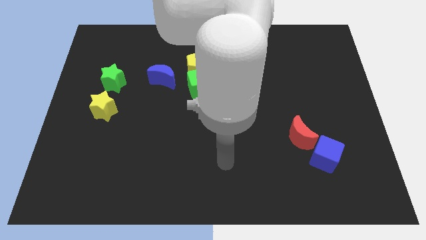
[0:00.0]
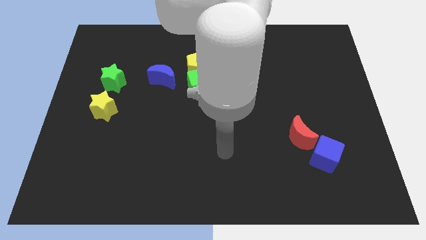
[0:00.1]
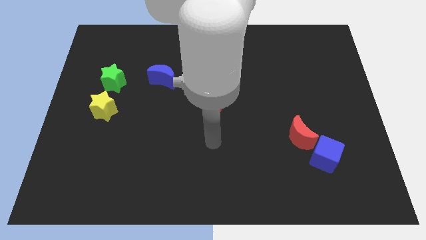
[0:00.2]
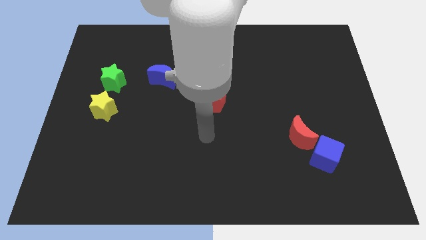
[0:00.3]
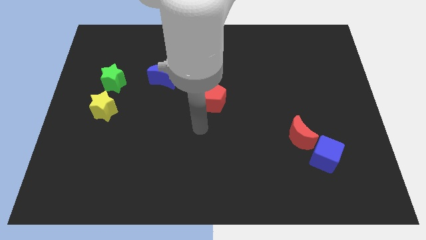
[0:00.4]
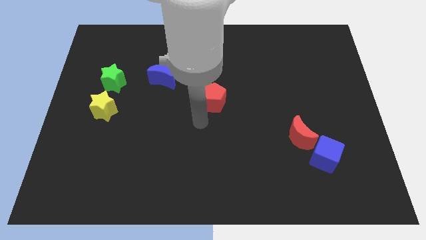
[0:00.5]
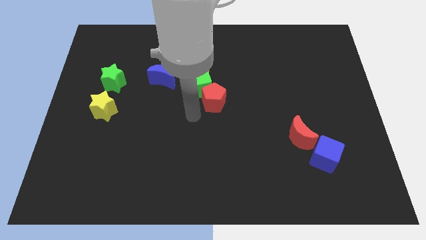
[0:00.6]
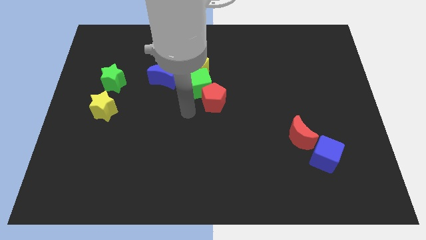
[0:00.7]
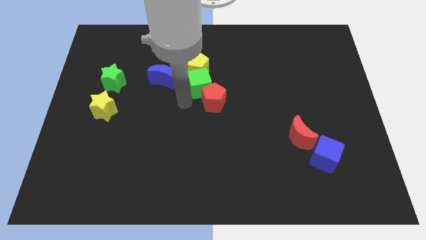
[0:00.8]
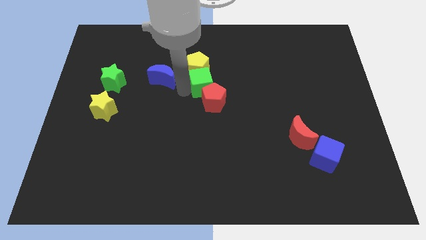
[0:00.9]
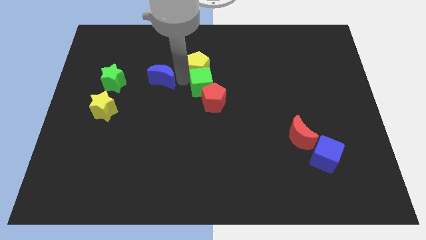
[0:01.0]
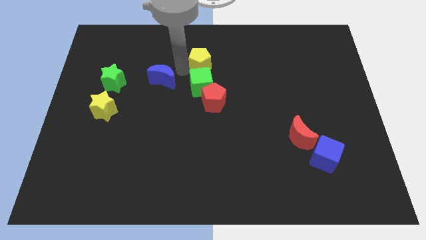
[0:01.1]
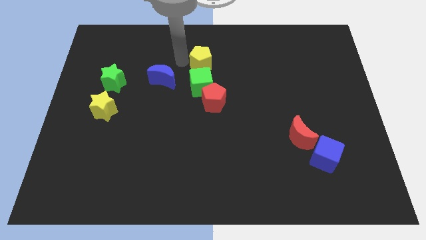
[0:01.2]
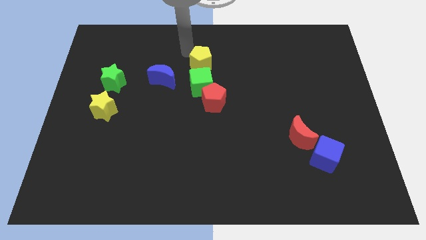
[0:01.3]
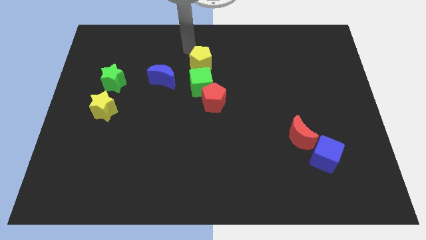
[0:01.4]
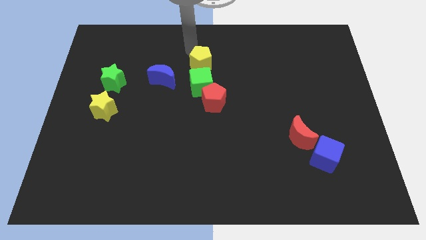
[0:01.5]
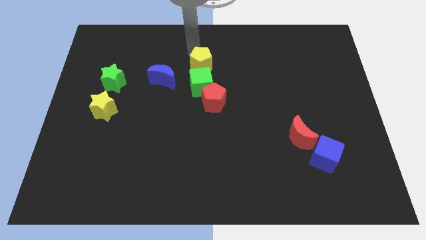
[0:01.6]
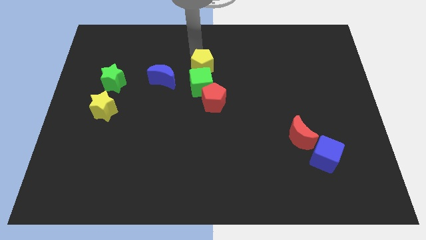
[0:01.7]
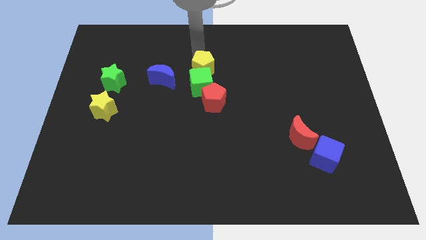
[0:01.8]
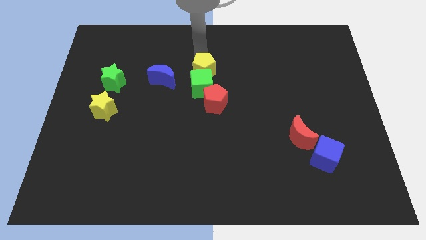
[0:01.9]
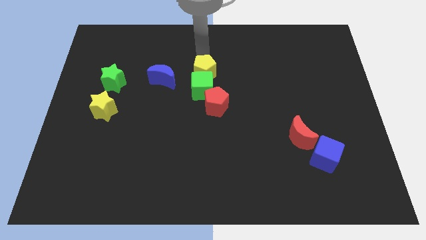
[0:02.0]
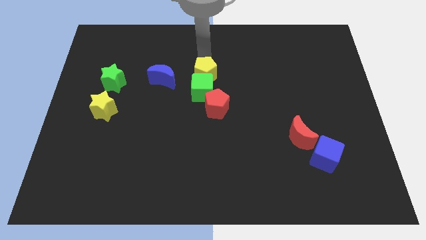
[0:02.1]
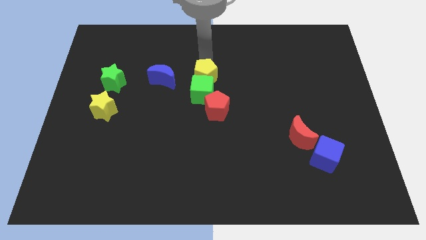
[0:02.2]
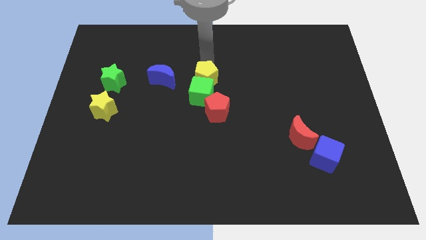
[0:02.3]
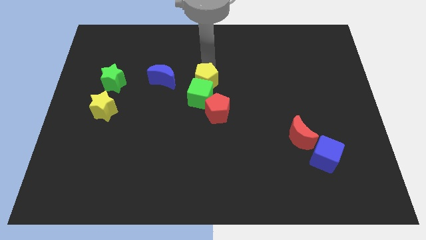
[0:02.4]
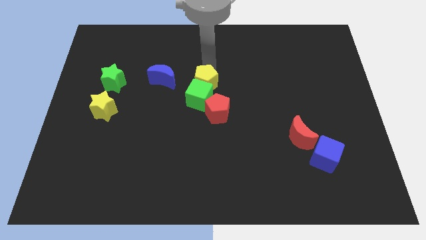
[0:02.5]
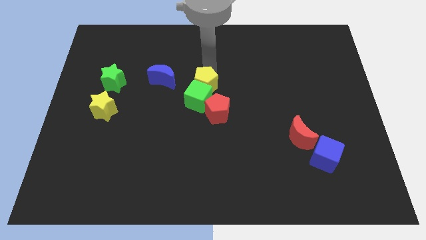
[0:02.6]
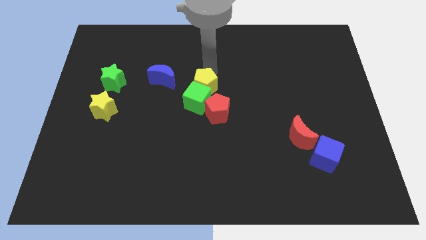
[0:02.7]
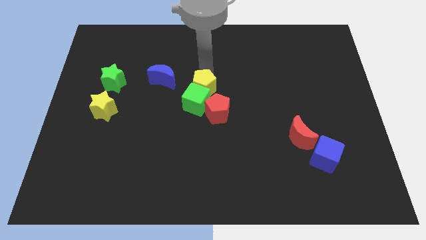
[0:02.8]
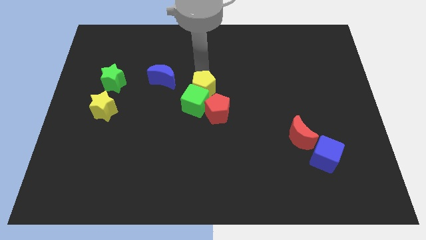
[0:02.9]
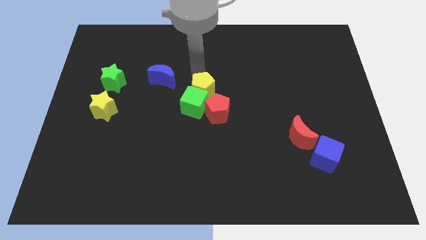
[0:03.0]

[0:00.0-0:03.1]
move the yellow pentagon a little down

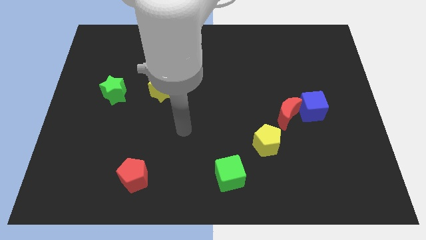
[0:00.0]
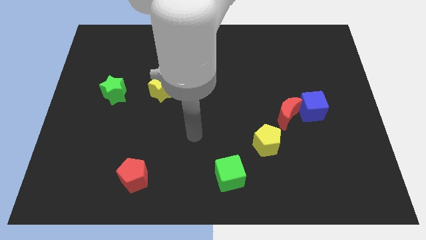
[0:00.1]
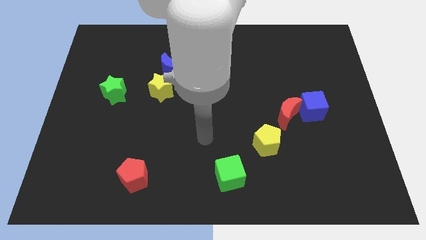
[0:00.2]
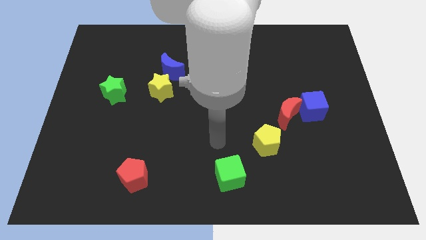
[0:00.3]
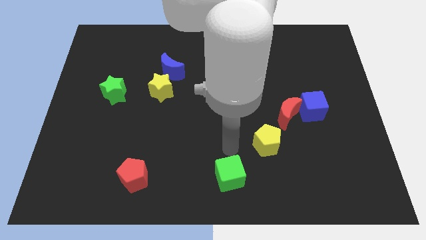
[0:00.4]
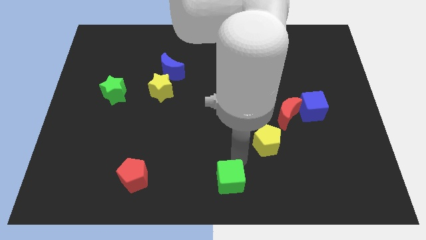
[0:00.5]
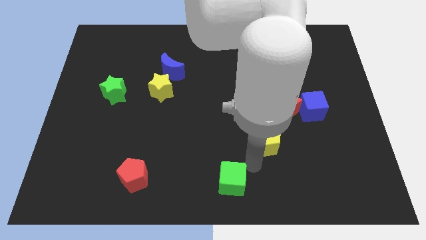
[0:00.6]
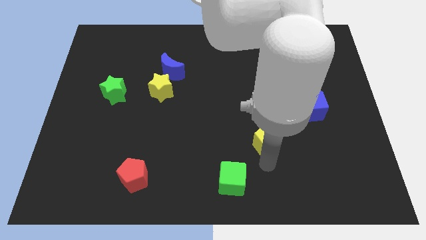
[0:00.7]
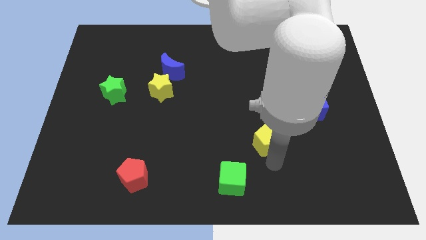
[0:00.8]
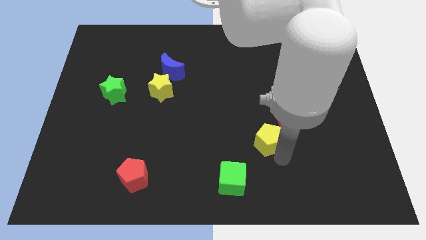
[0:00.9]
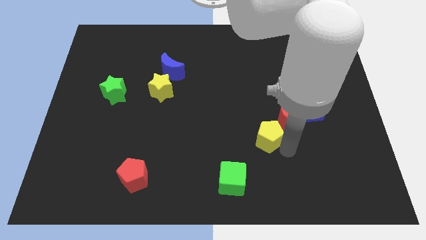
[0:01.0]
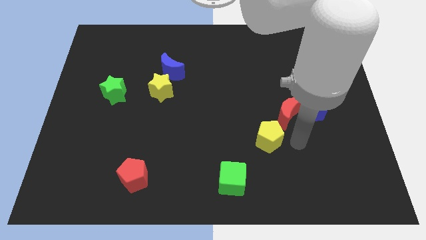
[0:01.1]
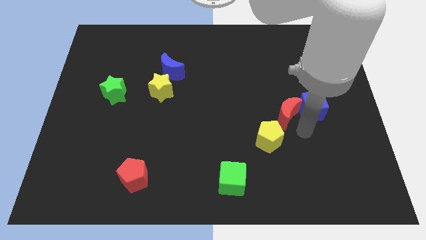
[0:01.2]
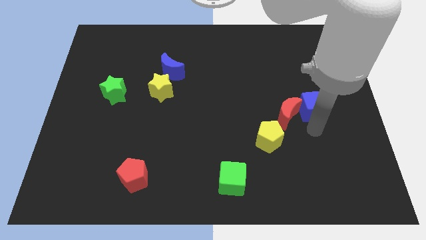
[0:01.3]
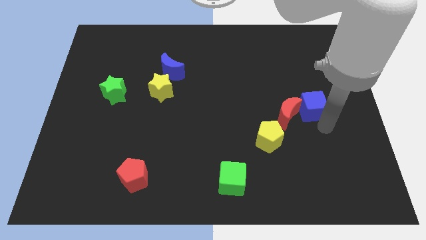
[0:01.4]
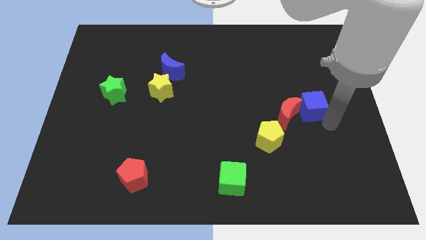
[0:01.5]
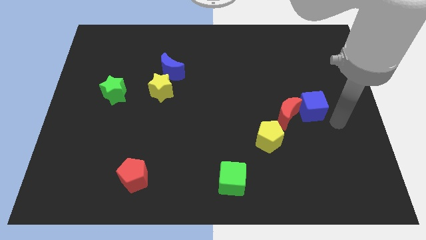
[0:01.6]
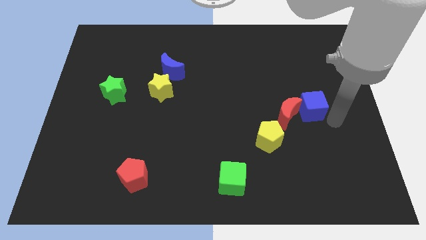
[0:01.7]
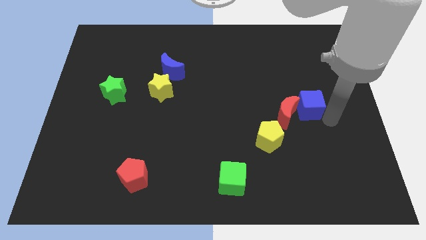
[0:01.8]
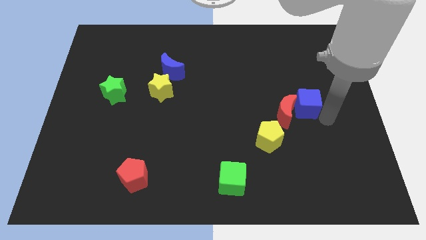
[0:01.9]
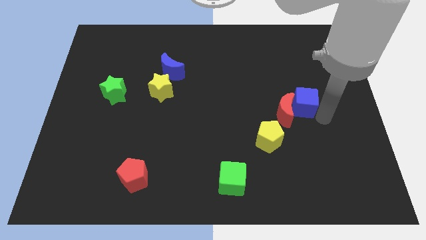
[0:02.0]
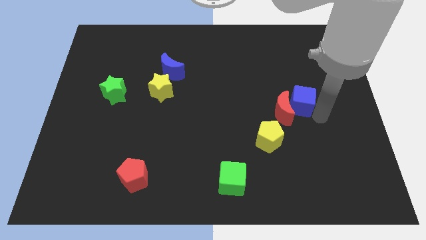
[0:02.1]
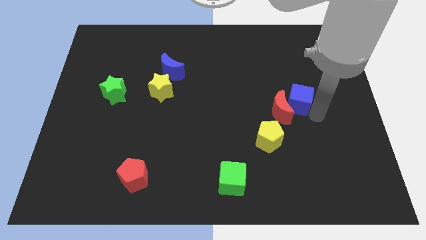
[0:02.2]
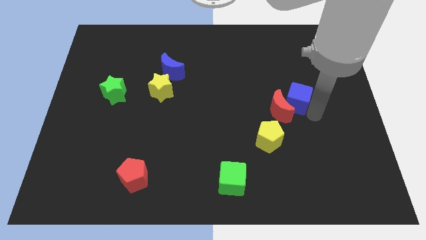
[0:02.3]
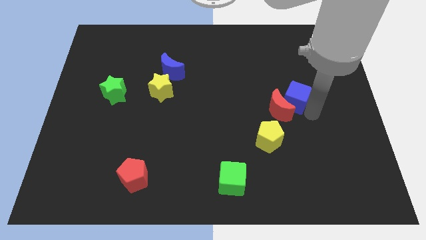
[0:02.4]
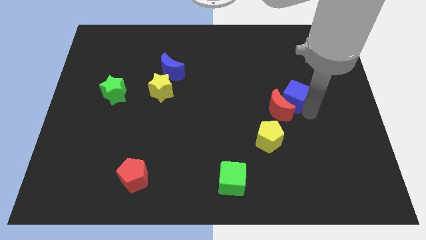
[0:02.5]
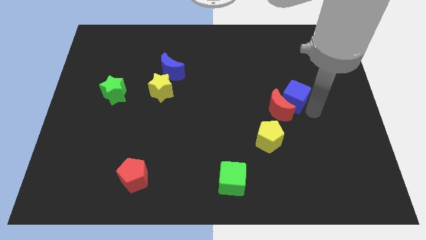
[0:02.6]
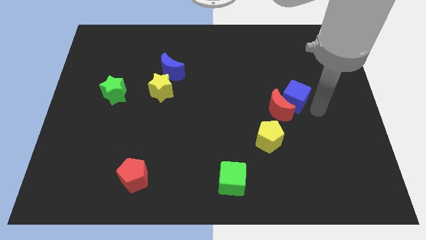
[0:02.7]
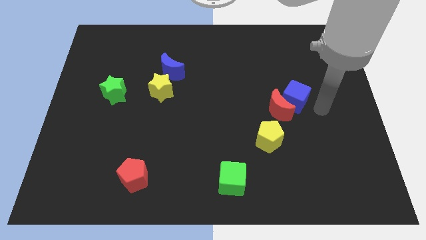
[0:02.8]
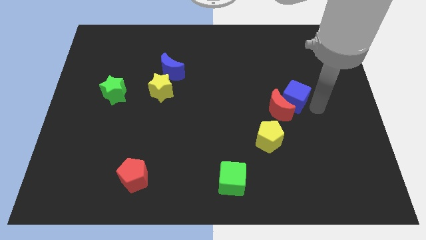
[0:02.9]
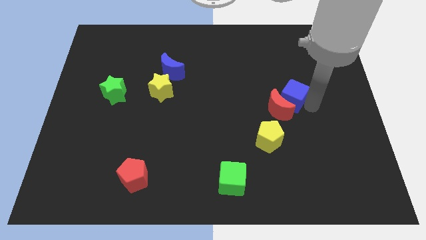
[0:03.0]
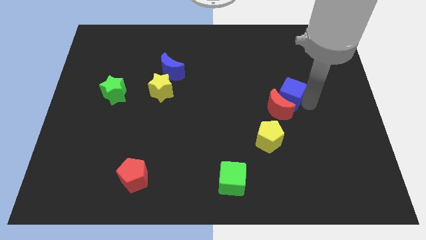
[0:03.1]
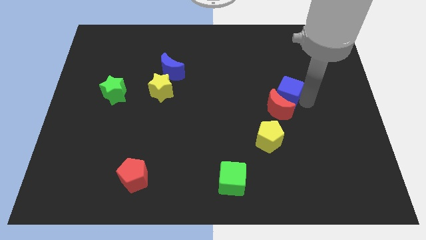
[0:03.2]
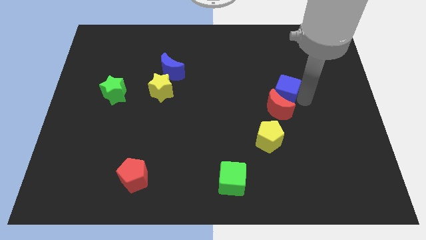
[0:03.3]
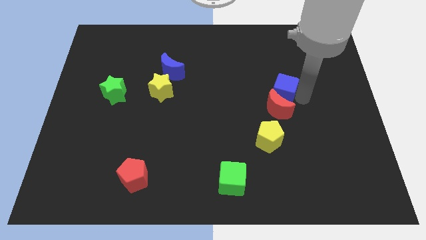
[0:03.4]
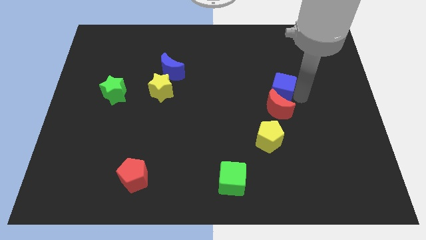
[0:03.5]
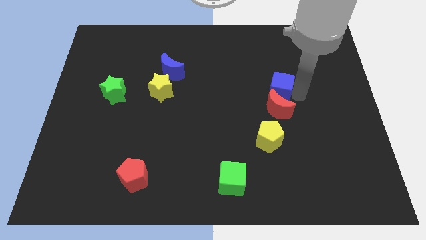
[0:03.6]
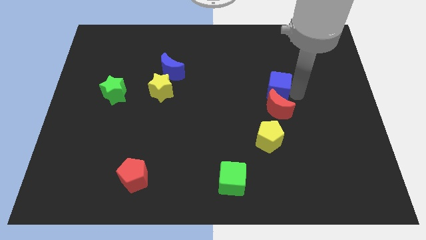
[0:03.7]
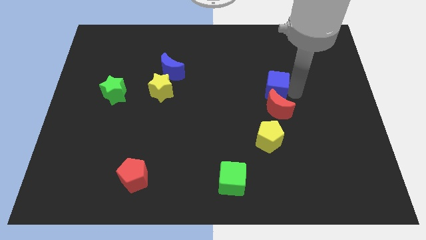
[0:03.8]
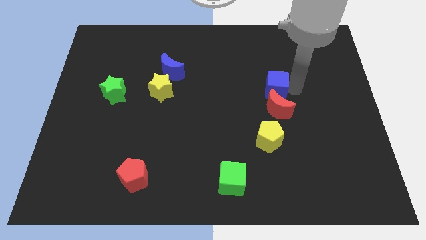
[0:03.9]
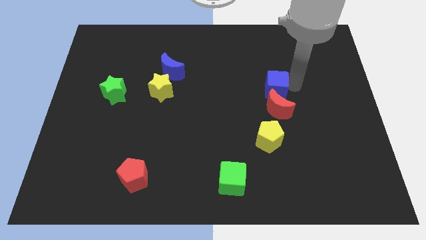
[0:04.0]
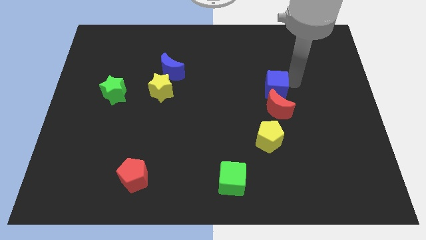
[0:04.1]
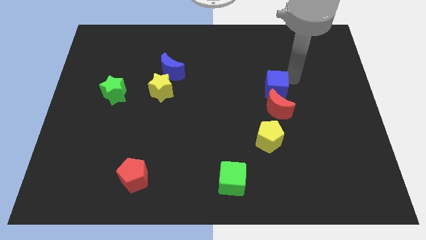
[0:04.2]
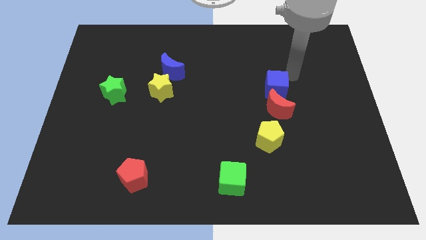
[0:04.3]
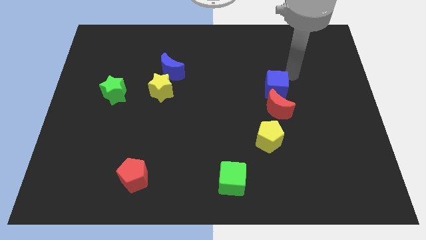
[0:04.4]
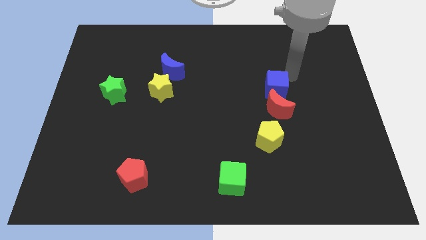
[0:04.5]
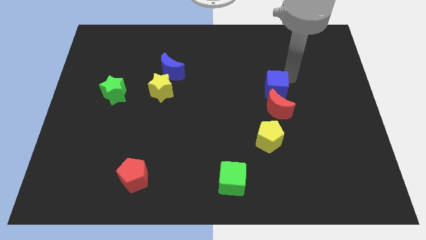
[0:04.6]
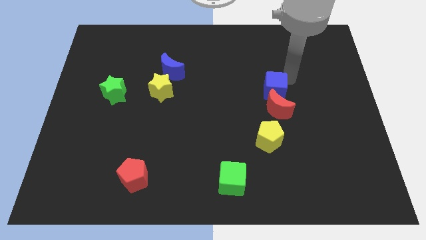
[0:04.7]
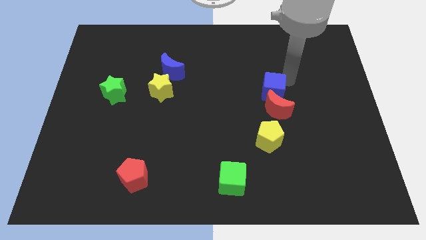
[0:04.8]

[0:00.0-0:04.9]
move the blue cube slightly to the left
